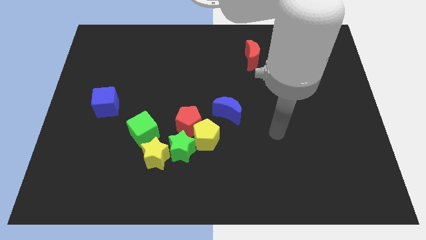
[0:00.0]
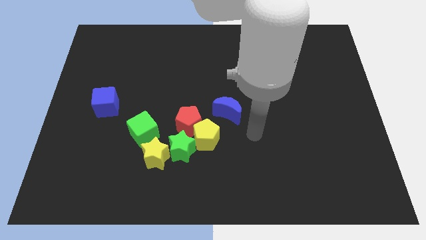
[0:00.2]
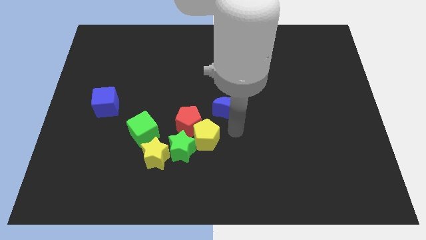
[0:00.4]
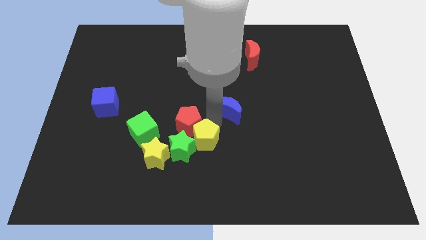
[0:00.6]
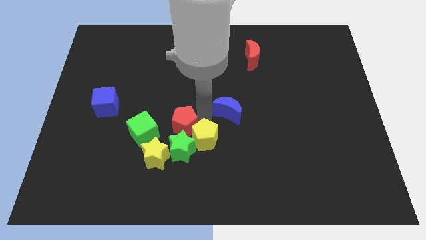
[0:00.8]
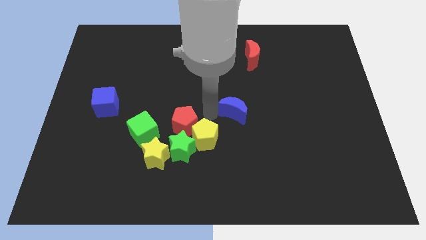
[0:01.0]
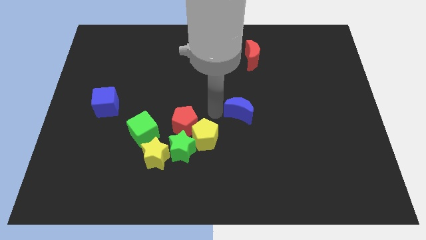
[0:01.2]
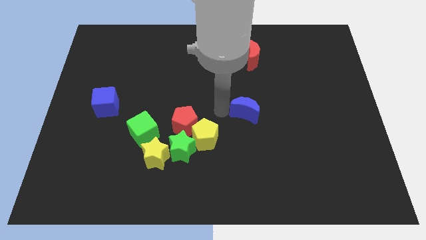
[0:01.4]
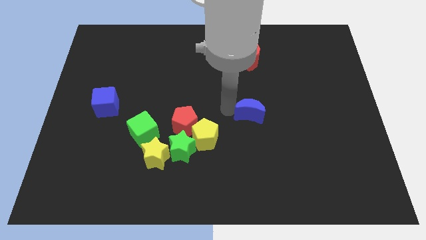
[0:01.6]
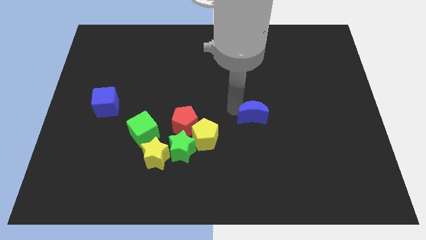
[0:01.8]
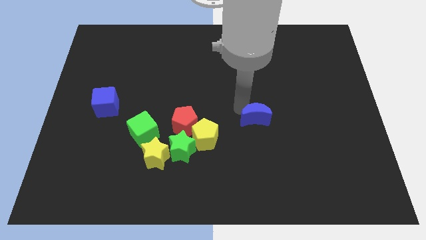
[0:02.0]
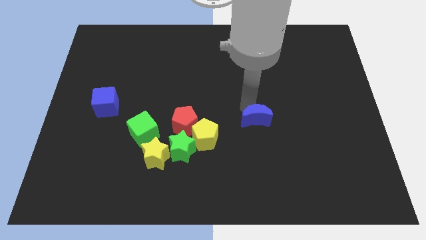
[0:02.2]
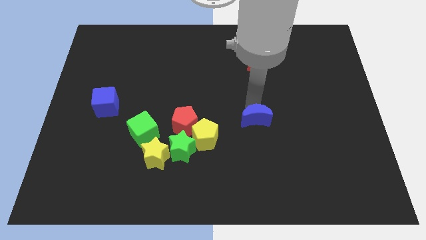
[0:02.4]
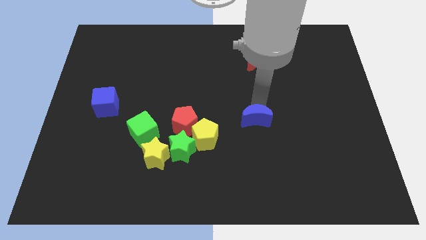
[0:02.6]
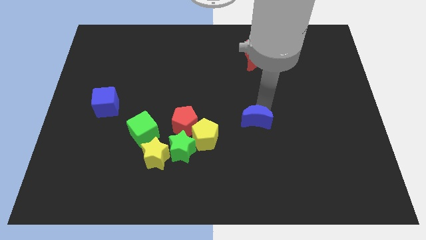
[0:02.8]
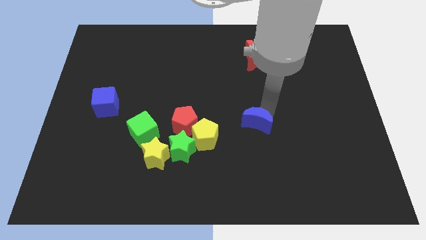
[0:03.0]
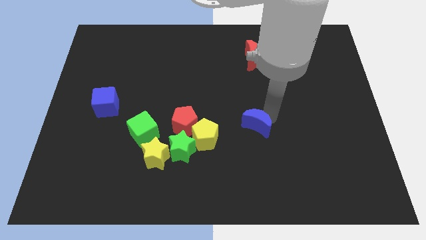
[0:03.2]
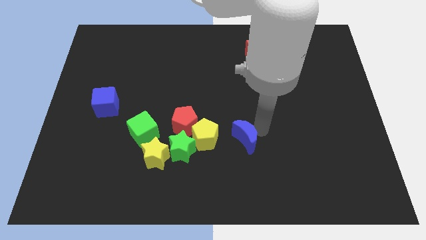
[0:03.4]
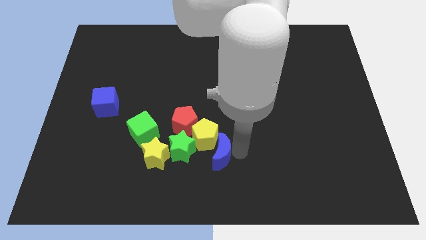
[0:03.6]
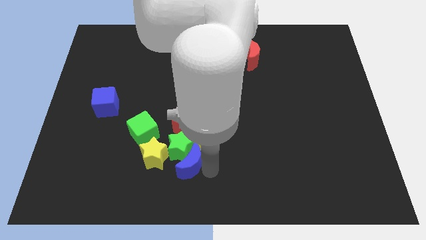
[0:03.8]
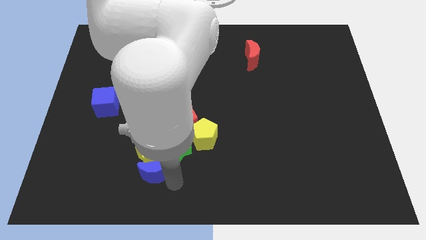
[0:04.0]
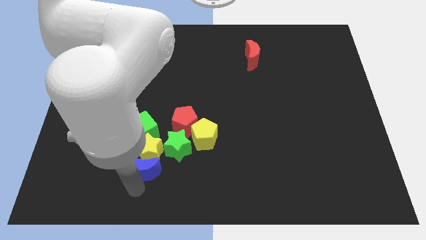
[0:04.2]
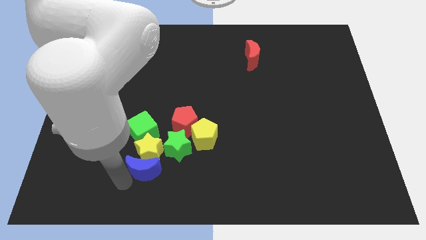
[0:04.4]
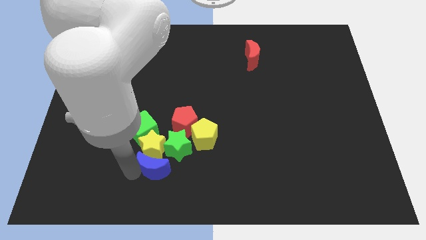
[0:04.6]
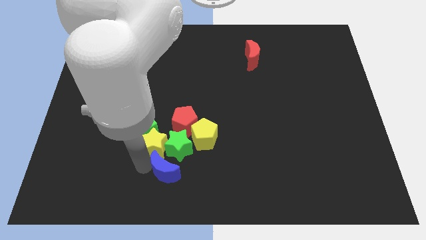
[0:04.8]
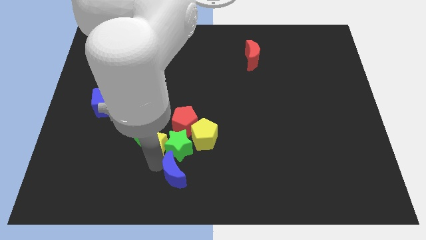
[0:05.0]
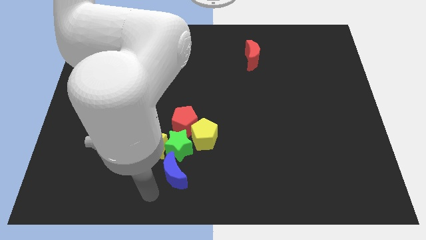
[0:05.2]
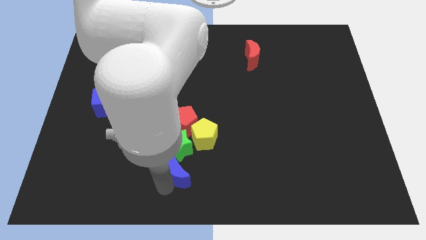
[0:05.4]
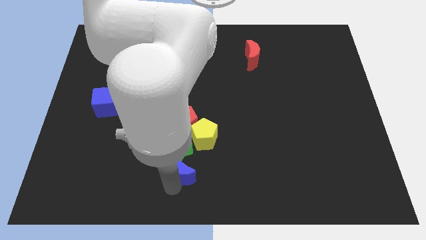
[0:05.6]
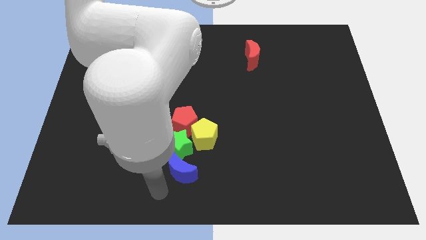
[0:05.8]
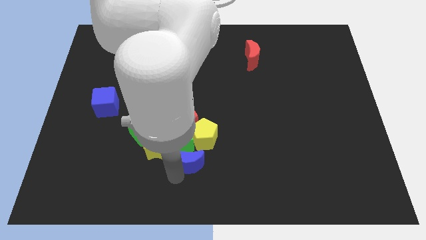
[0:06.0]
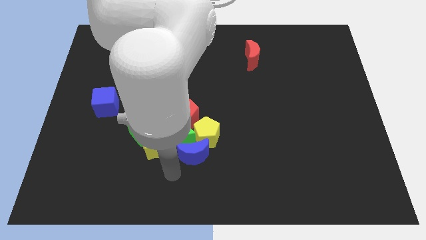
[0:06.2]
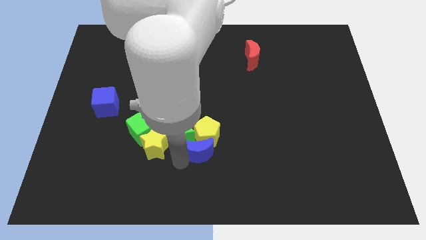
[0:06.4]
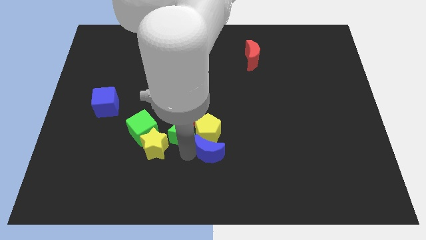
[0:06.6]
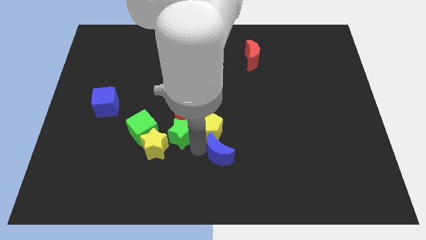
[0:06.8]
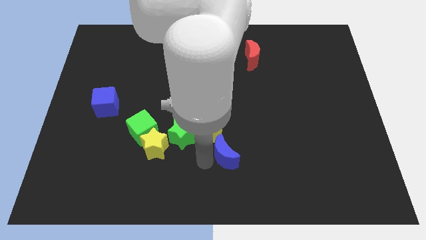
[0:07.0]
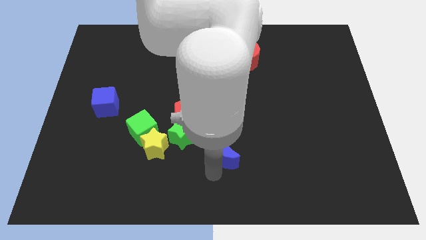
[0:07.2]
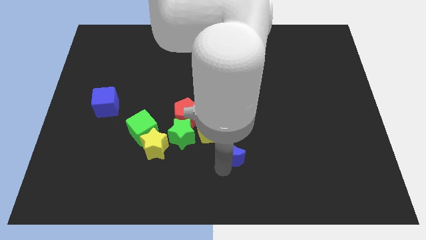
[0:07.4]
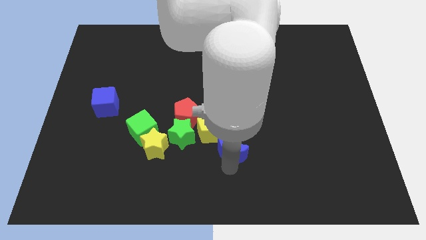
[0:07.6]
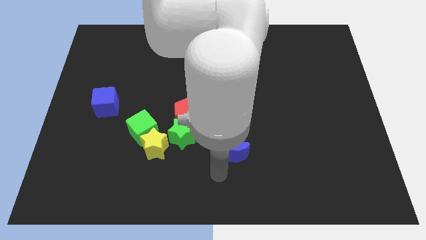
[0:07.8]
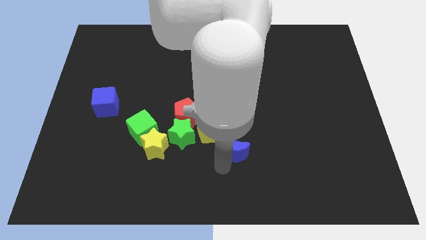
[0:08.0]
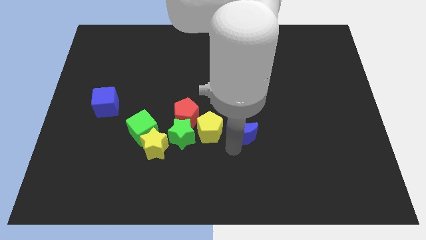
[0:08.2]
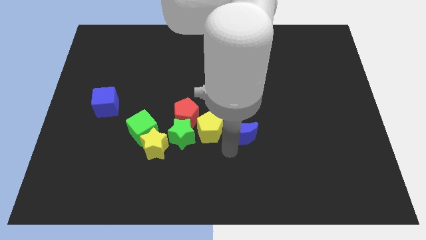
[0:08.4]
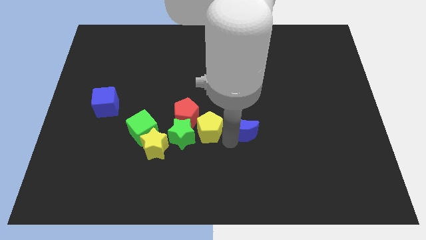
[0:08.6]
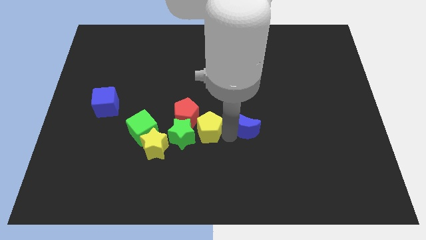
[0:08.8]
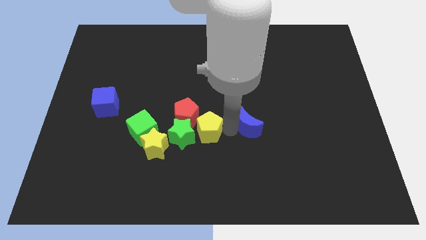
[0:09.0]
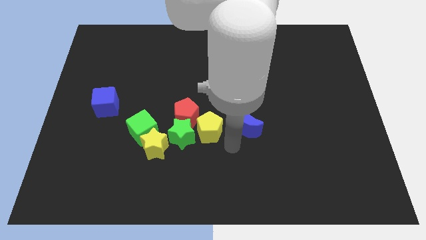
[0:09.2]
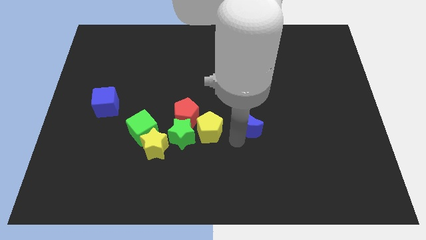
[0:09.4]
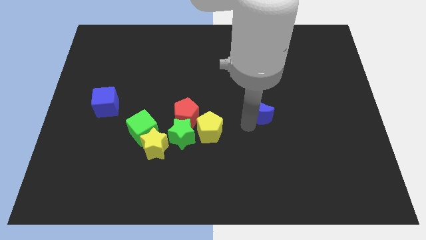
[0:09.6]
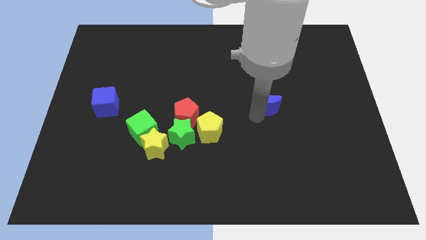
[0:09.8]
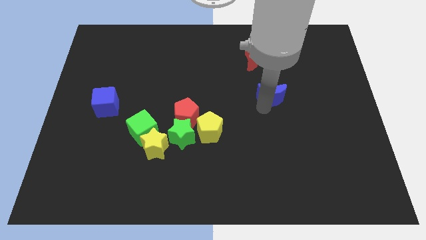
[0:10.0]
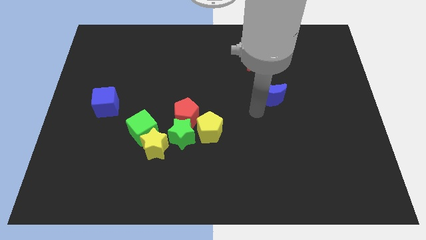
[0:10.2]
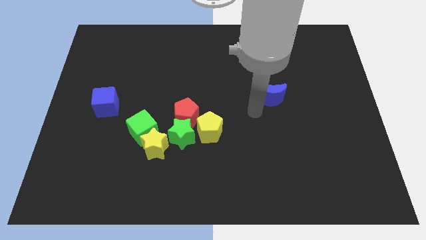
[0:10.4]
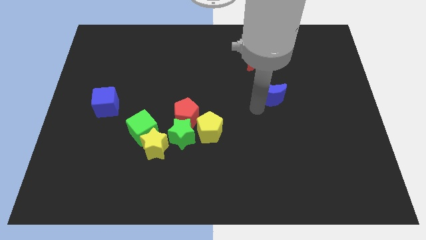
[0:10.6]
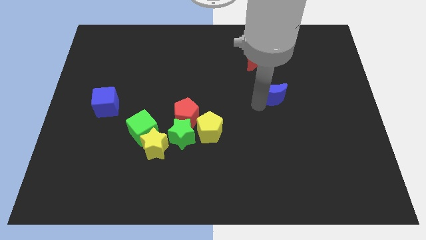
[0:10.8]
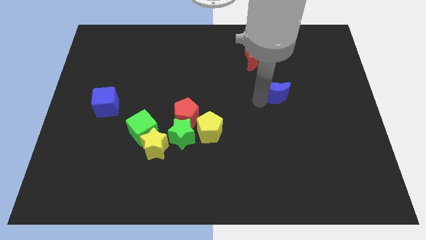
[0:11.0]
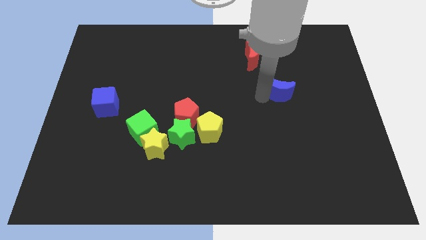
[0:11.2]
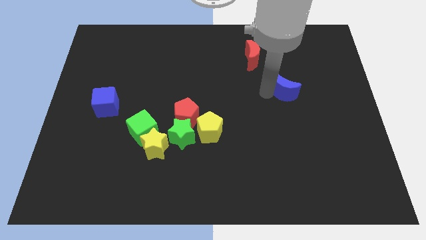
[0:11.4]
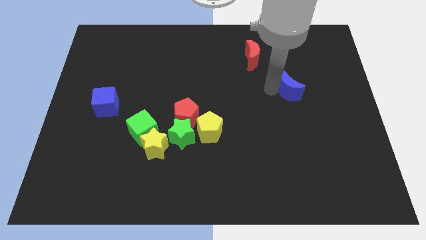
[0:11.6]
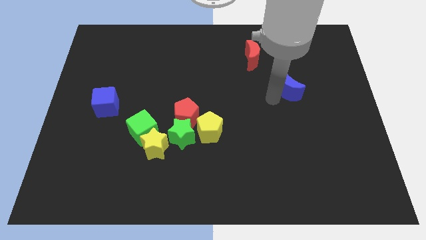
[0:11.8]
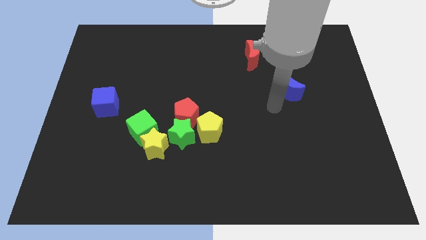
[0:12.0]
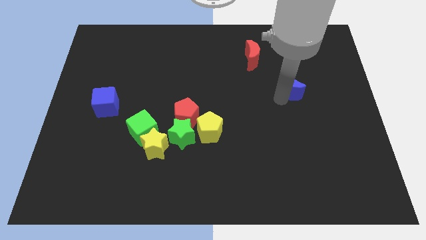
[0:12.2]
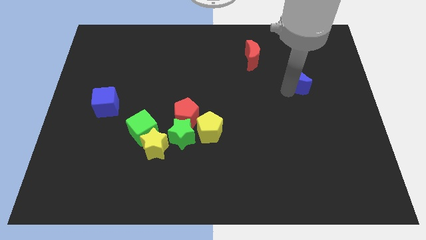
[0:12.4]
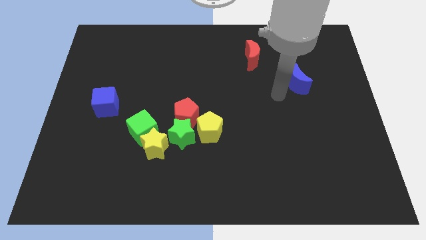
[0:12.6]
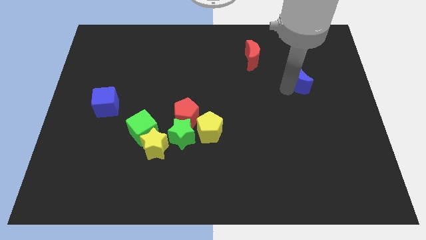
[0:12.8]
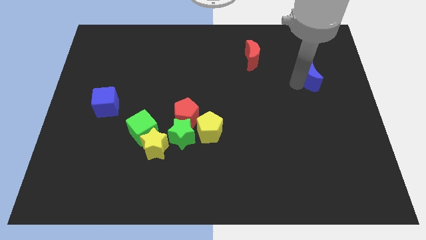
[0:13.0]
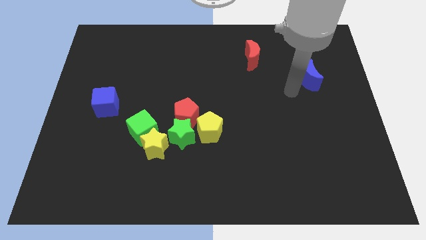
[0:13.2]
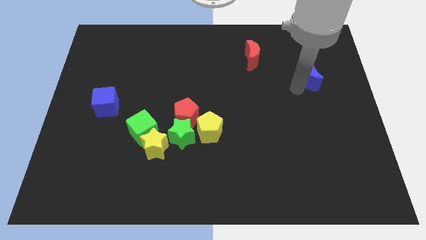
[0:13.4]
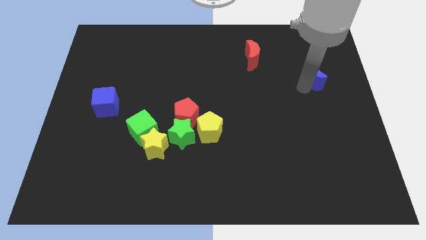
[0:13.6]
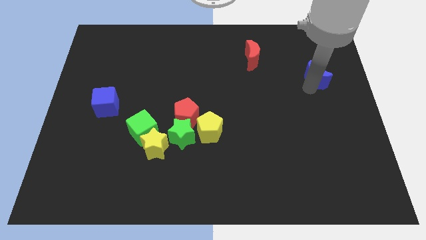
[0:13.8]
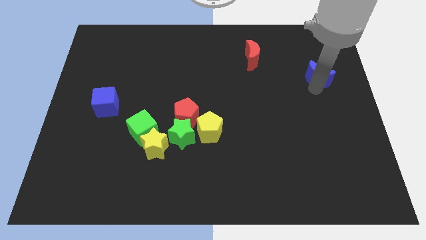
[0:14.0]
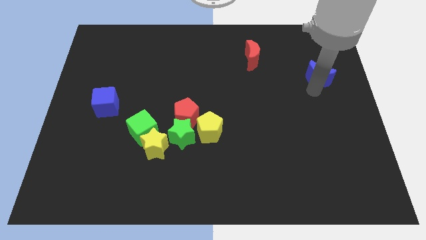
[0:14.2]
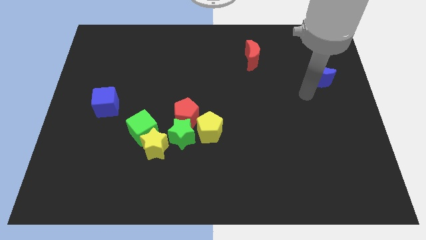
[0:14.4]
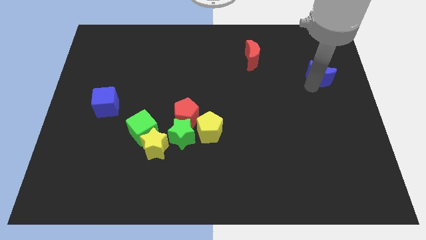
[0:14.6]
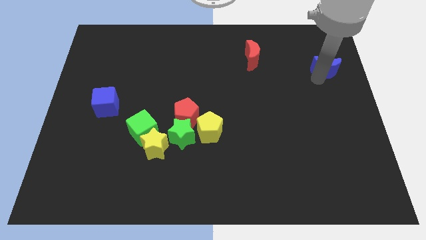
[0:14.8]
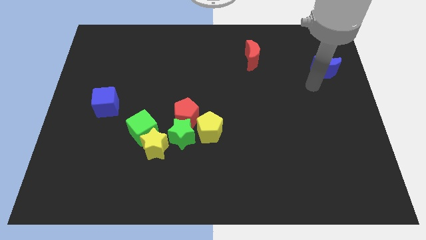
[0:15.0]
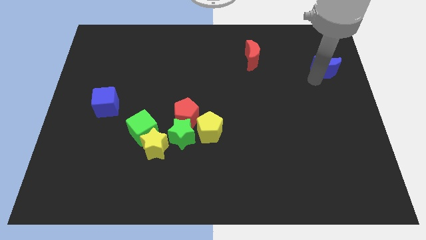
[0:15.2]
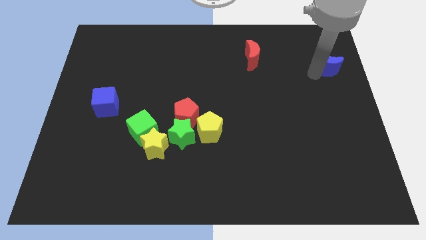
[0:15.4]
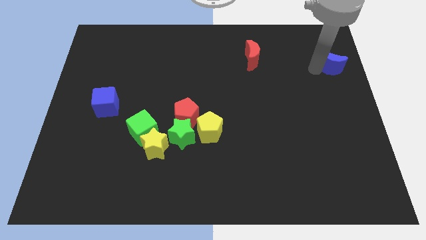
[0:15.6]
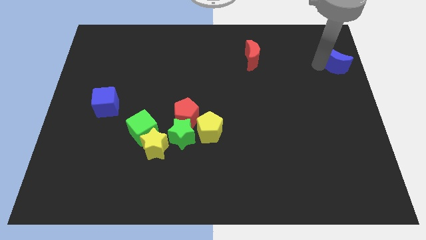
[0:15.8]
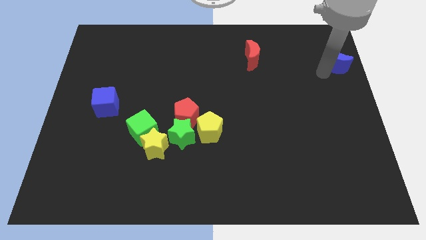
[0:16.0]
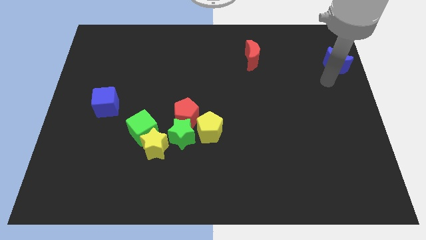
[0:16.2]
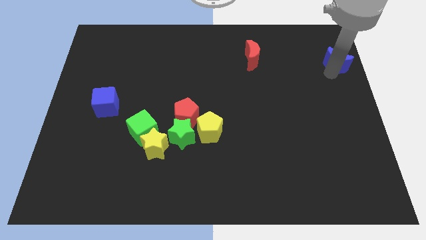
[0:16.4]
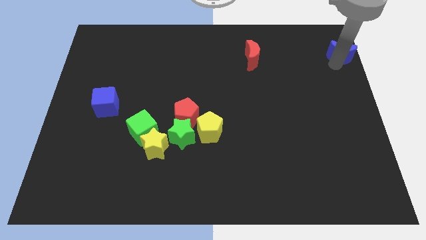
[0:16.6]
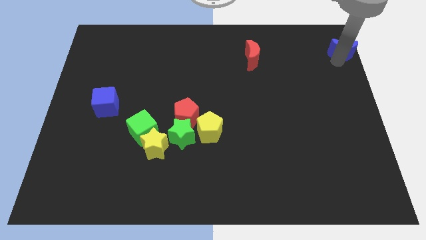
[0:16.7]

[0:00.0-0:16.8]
push the blue moon to the top right corner
